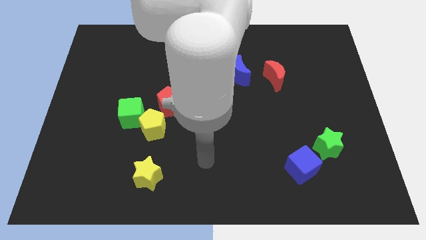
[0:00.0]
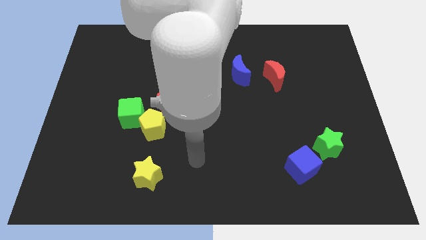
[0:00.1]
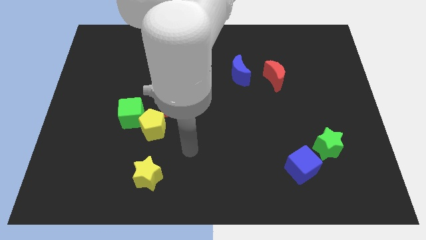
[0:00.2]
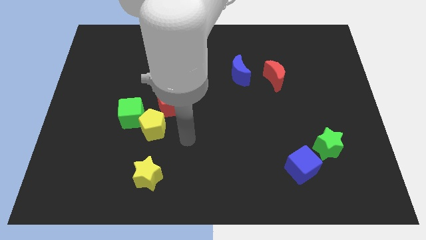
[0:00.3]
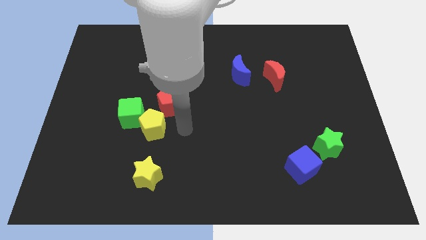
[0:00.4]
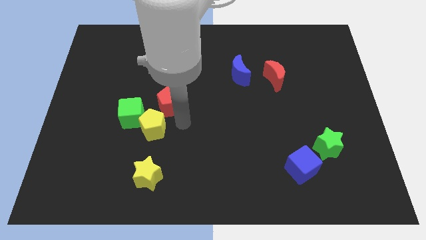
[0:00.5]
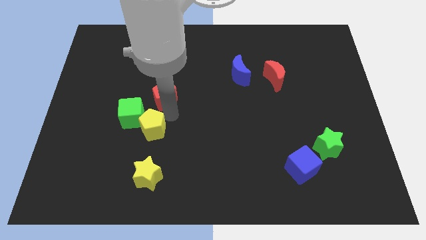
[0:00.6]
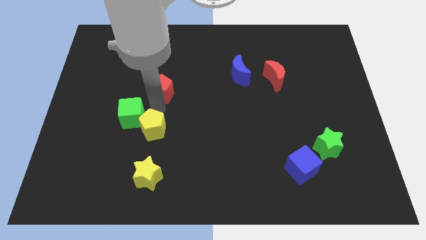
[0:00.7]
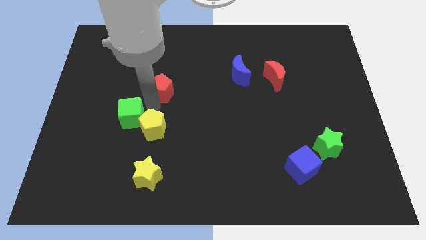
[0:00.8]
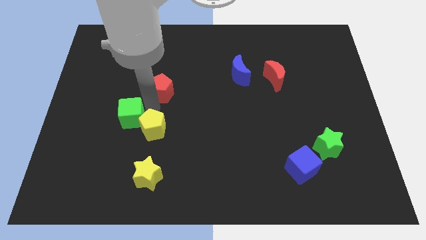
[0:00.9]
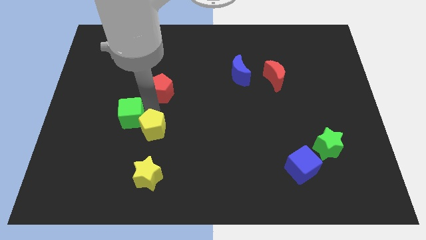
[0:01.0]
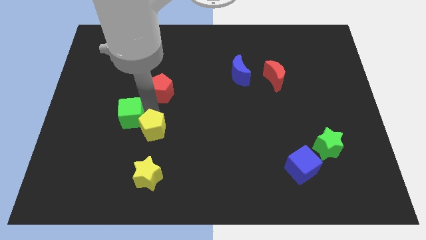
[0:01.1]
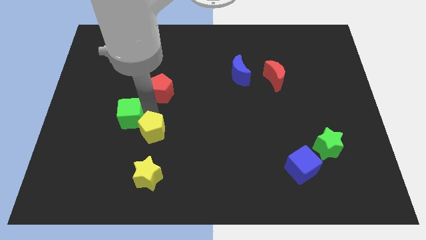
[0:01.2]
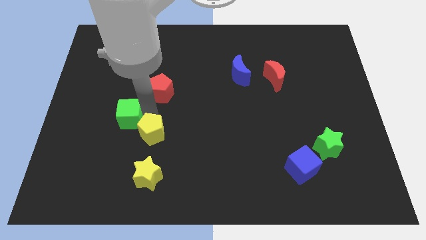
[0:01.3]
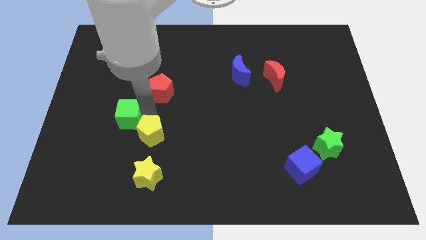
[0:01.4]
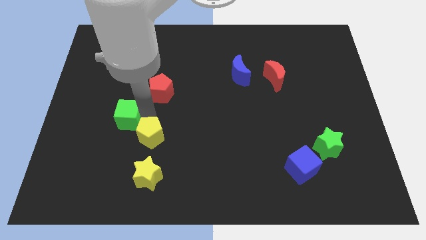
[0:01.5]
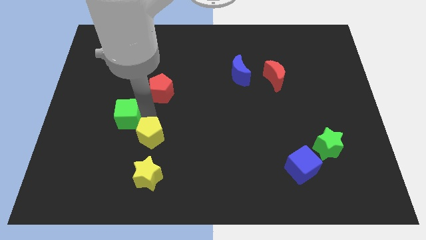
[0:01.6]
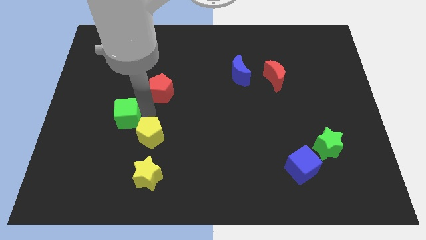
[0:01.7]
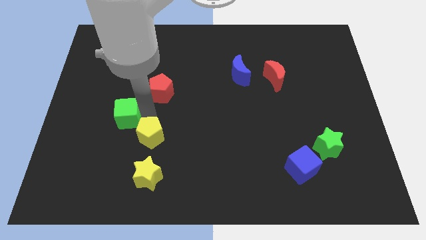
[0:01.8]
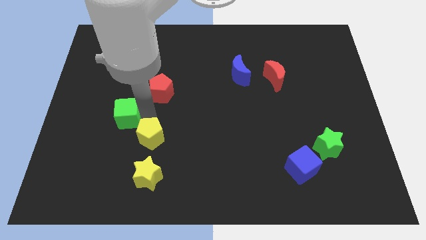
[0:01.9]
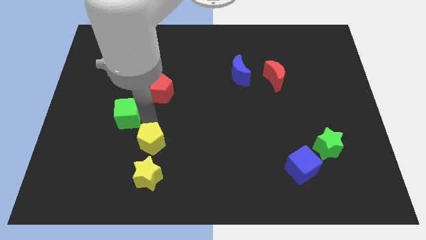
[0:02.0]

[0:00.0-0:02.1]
separate the yellow pentagon from the green cube and red pentagon

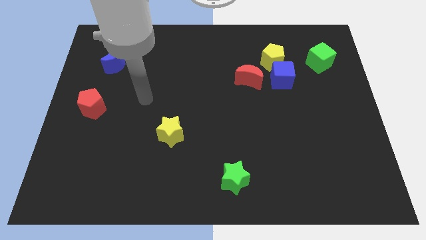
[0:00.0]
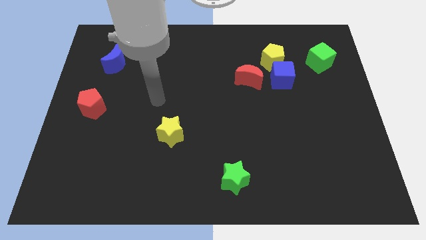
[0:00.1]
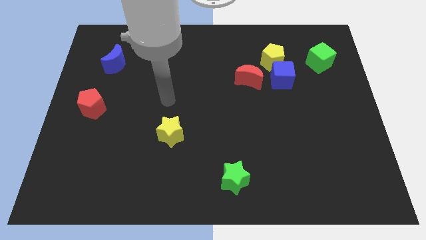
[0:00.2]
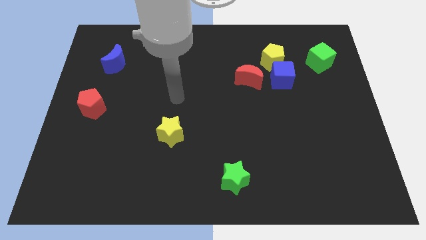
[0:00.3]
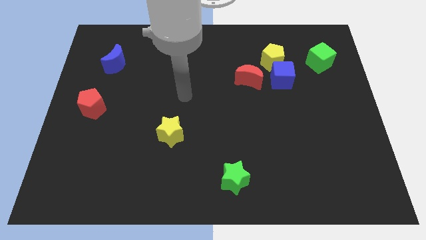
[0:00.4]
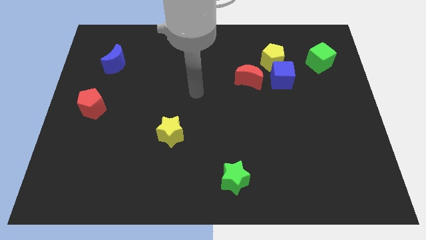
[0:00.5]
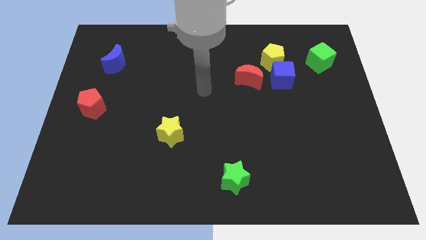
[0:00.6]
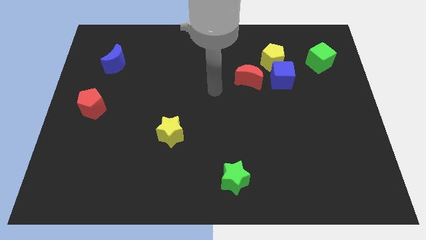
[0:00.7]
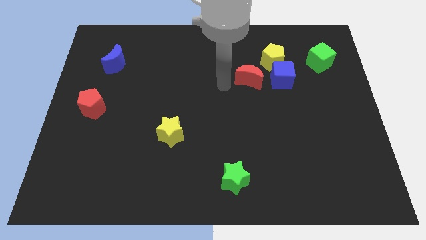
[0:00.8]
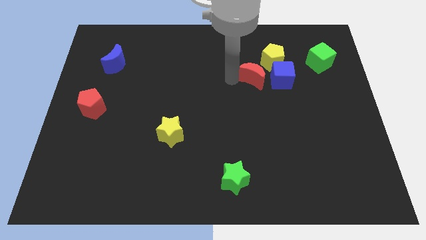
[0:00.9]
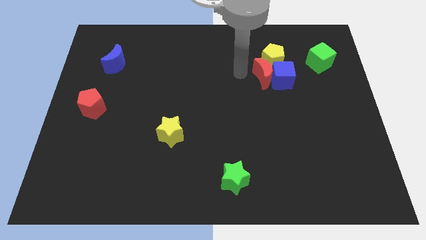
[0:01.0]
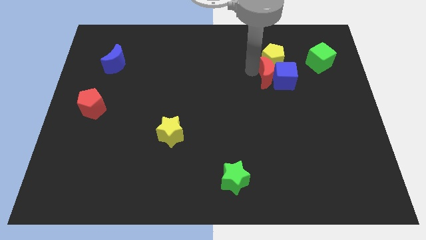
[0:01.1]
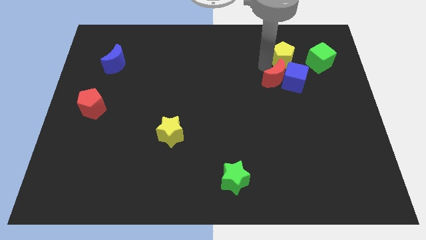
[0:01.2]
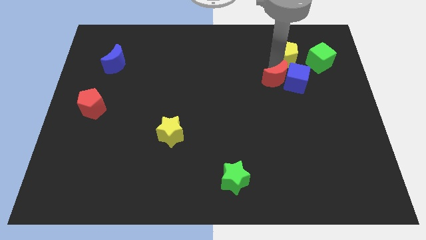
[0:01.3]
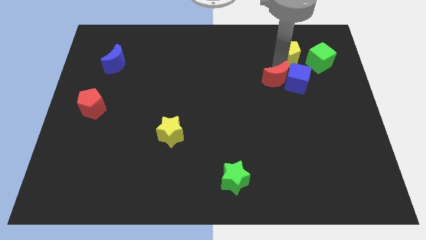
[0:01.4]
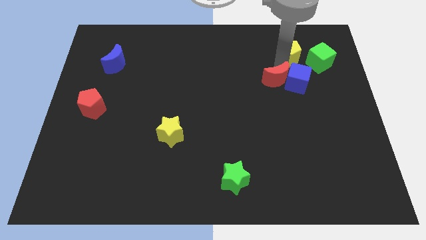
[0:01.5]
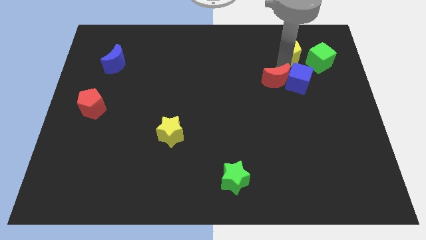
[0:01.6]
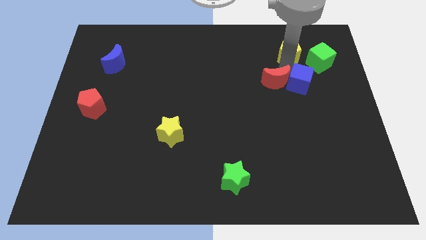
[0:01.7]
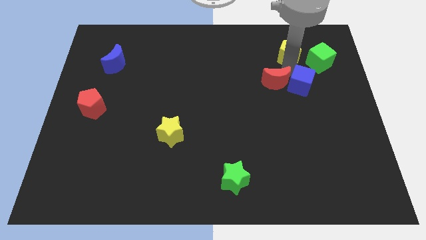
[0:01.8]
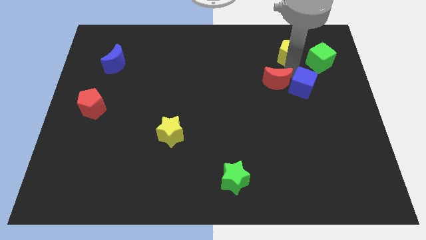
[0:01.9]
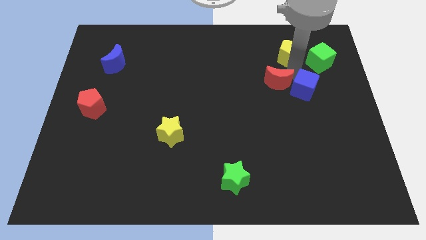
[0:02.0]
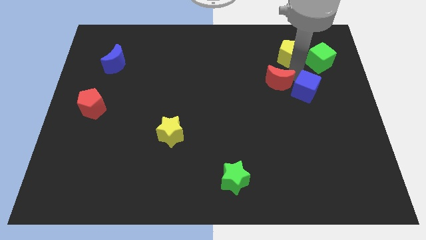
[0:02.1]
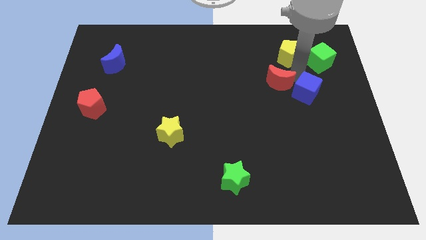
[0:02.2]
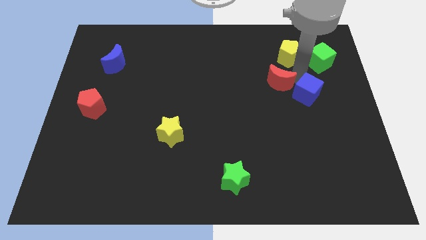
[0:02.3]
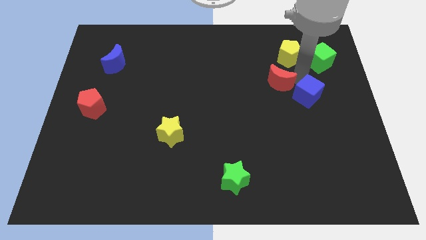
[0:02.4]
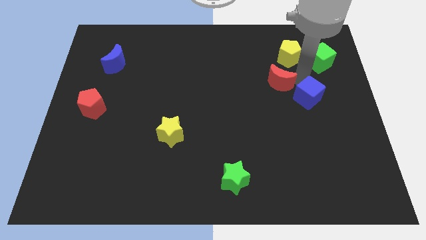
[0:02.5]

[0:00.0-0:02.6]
separate the blue cube from the yellow pentagon and red moon

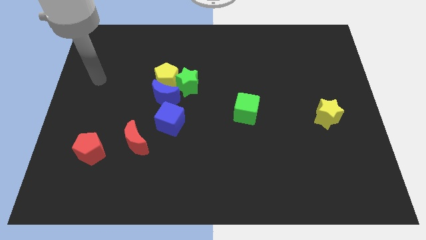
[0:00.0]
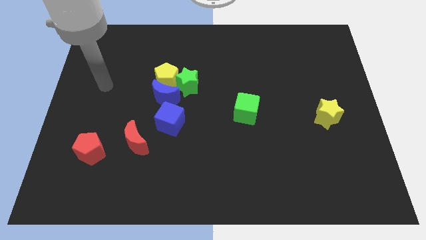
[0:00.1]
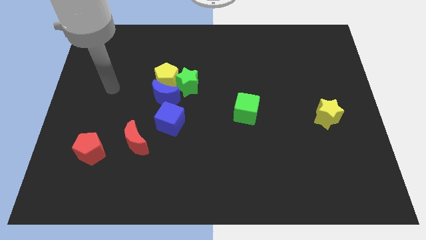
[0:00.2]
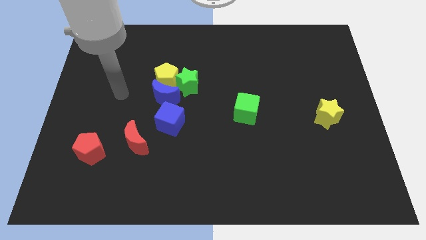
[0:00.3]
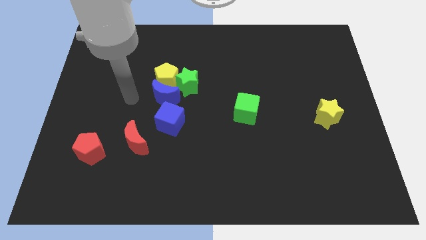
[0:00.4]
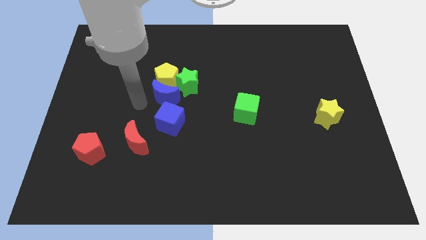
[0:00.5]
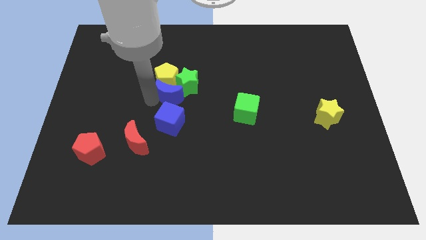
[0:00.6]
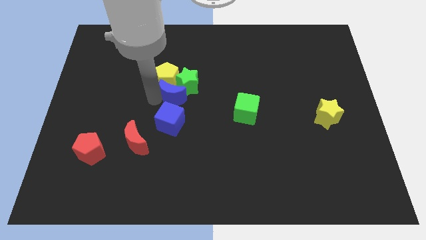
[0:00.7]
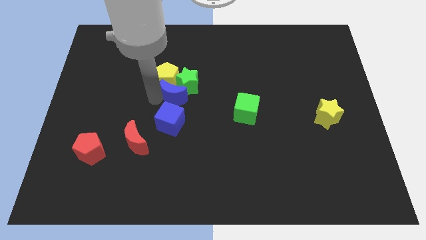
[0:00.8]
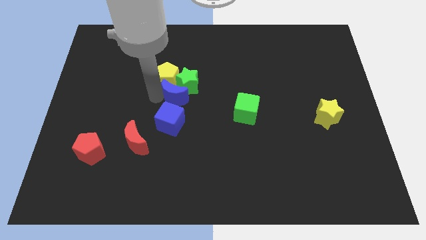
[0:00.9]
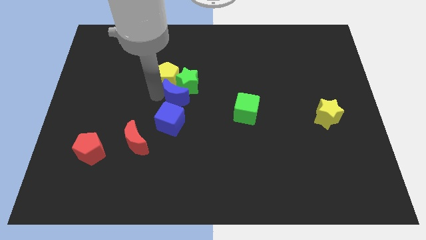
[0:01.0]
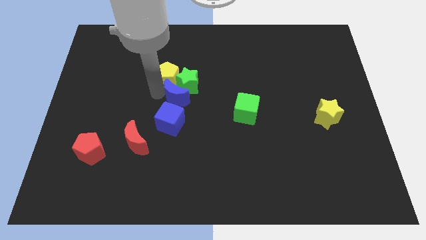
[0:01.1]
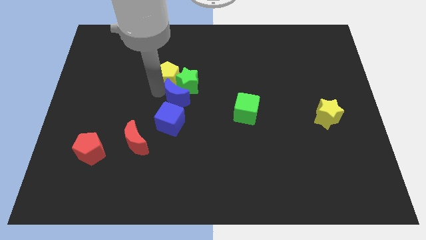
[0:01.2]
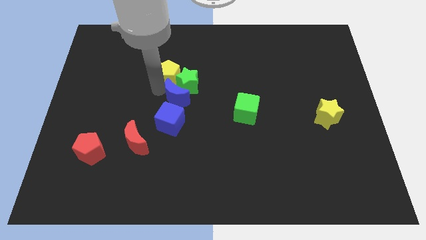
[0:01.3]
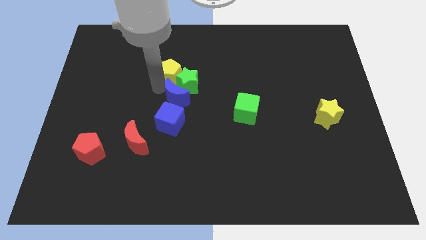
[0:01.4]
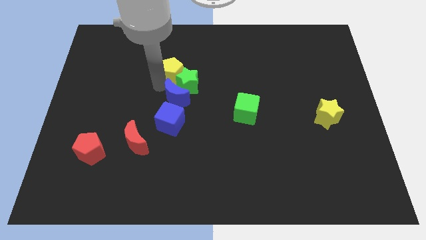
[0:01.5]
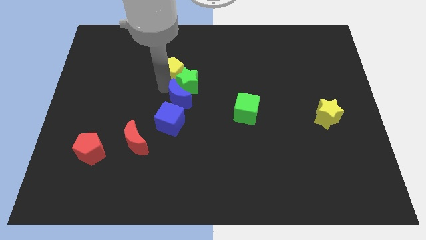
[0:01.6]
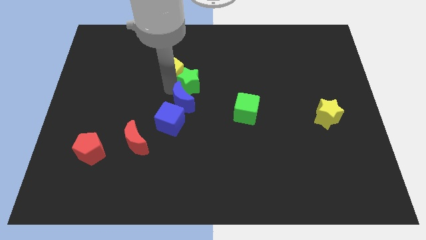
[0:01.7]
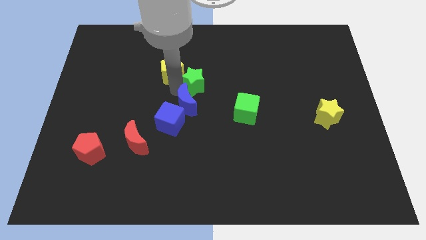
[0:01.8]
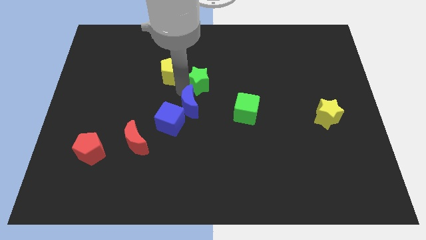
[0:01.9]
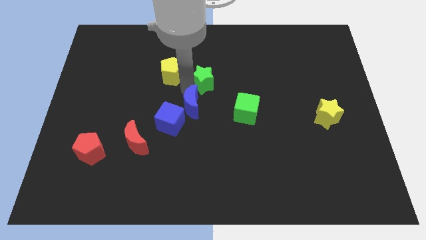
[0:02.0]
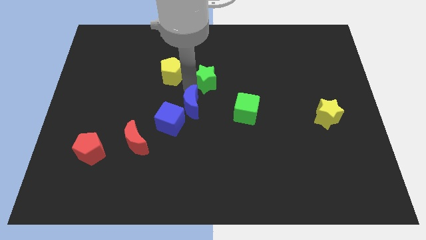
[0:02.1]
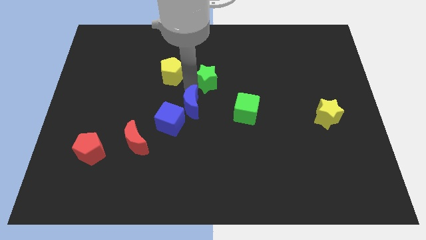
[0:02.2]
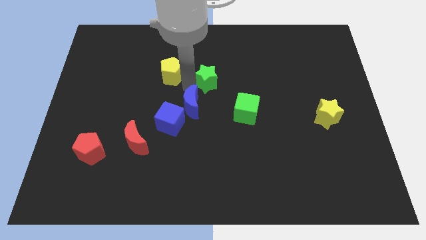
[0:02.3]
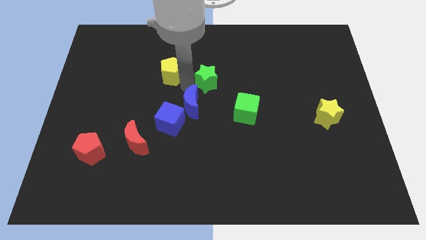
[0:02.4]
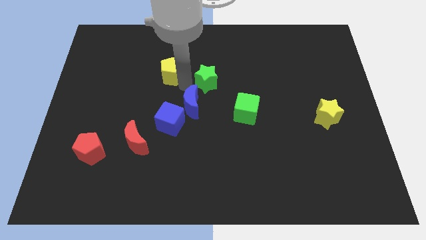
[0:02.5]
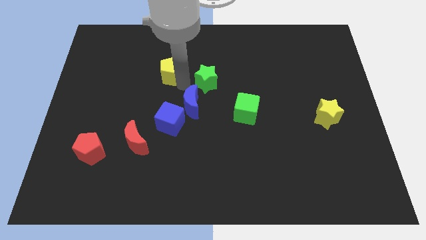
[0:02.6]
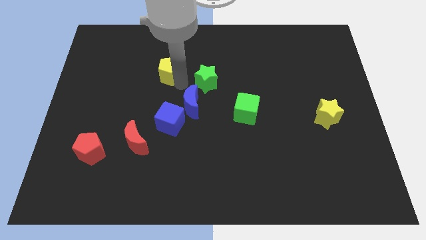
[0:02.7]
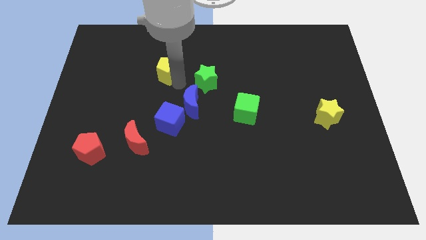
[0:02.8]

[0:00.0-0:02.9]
pull the yellow pentagon apart from the green star and blue moon

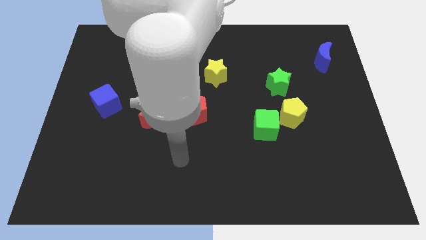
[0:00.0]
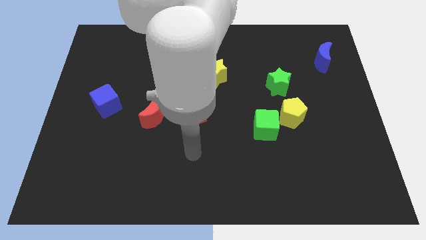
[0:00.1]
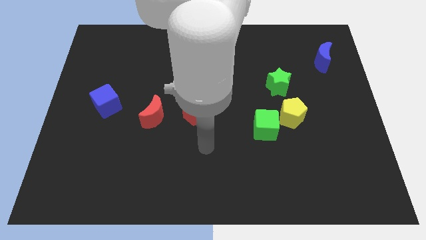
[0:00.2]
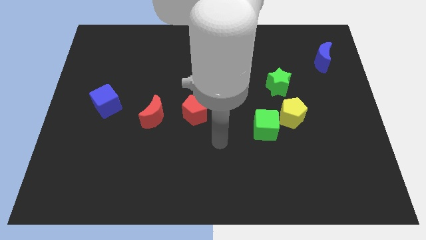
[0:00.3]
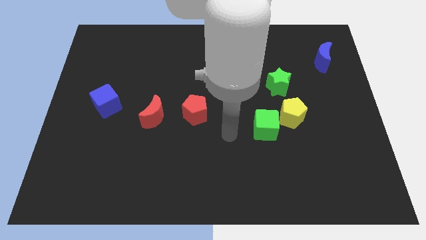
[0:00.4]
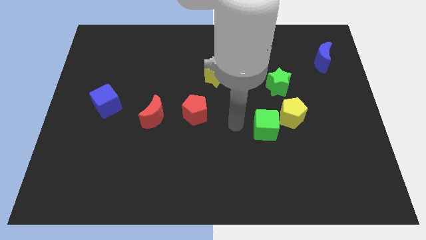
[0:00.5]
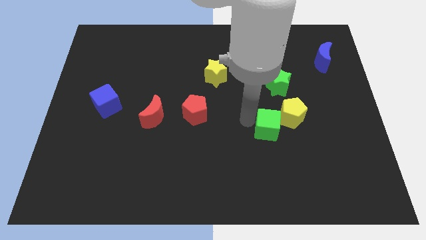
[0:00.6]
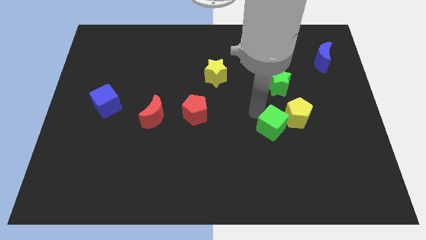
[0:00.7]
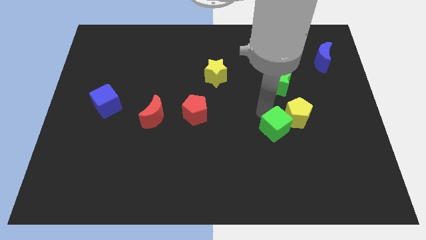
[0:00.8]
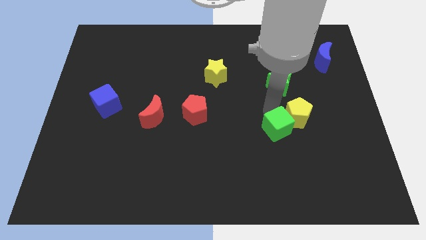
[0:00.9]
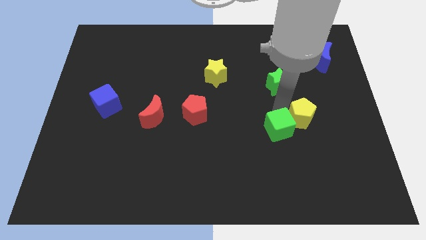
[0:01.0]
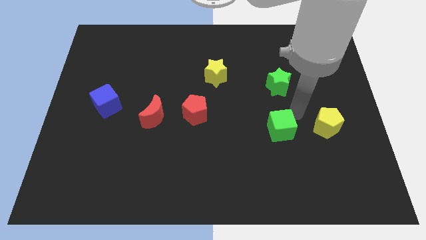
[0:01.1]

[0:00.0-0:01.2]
move the green cube away from the yellow pentagon

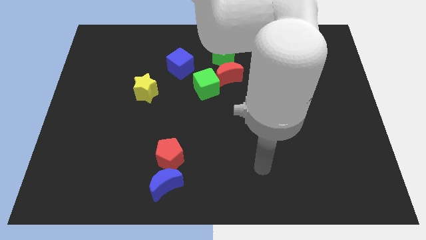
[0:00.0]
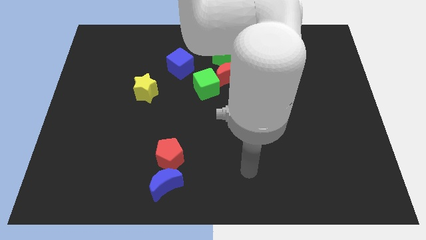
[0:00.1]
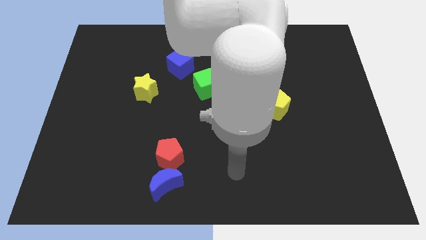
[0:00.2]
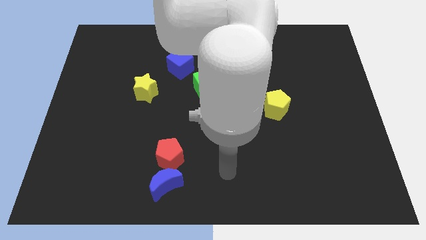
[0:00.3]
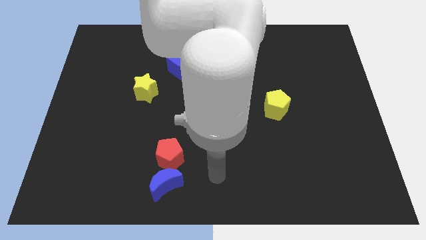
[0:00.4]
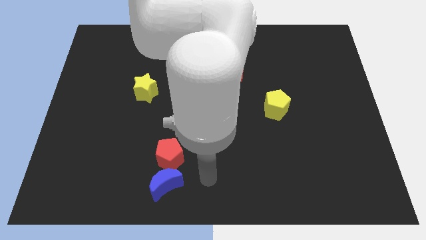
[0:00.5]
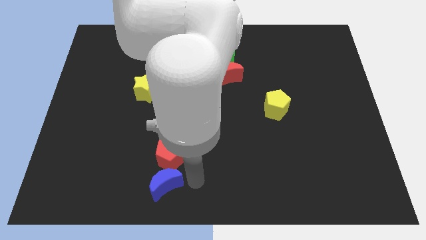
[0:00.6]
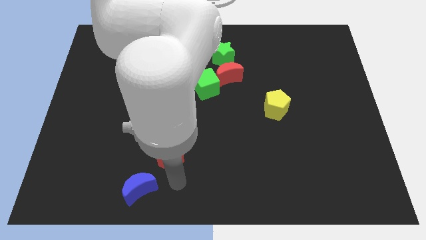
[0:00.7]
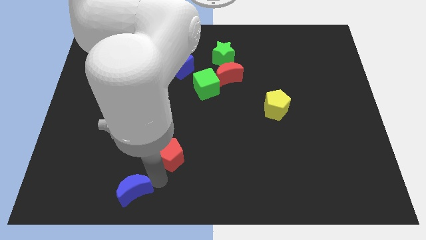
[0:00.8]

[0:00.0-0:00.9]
pull the red pentagon apart from the blue moon
